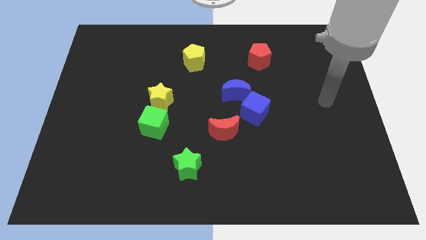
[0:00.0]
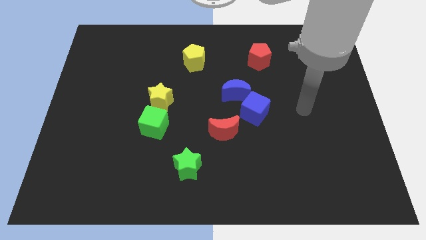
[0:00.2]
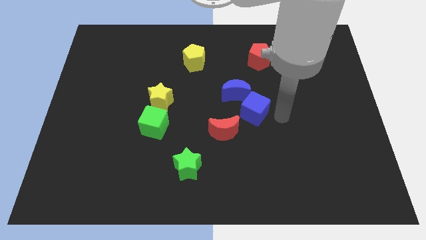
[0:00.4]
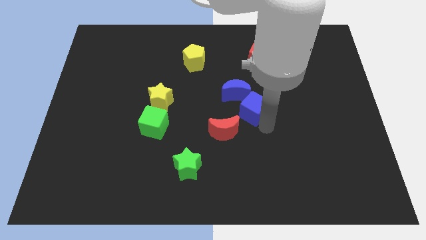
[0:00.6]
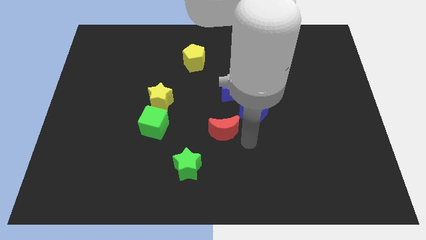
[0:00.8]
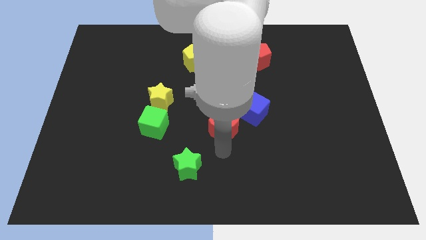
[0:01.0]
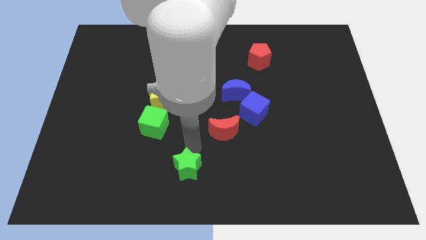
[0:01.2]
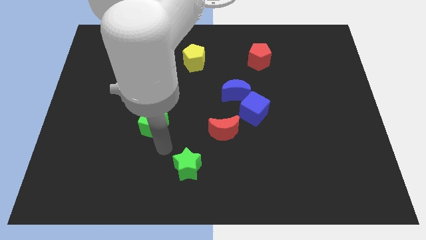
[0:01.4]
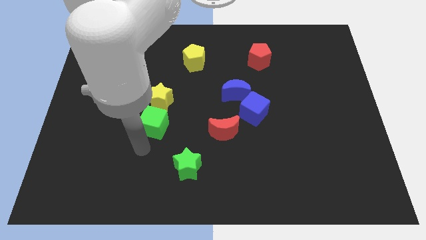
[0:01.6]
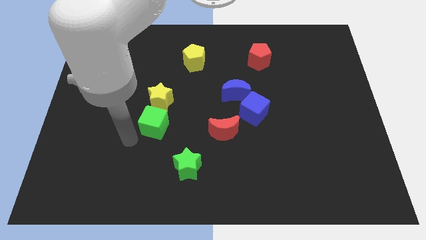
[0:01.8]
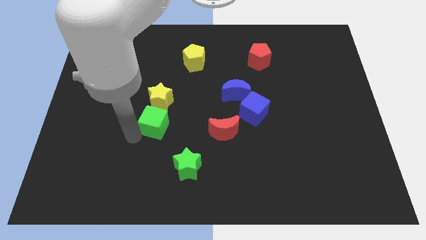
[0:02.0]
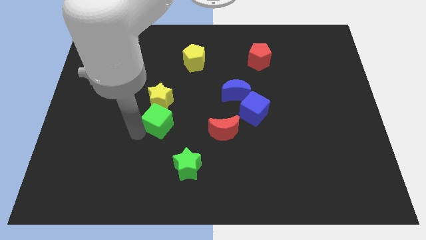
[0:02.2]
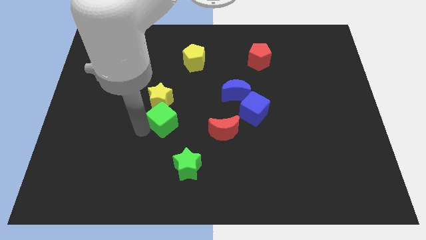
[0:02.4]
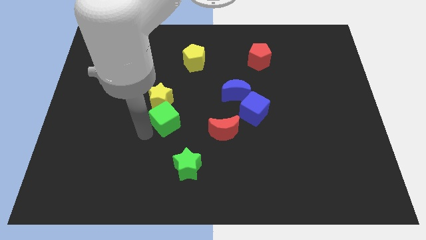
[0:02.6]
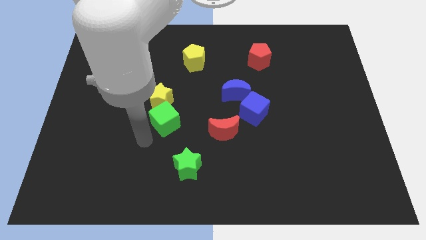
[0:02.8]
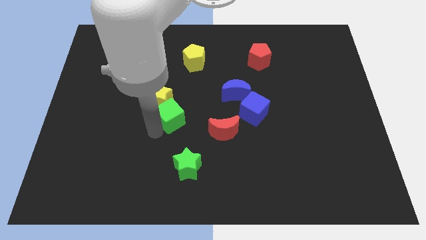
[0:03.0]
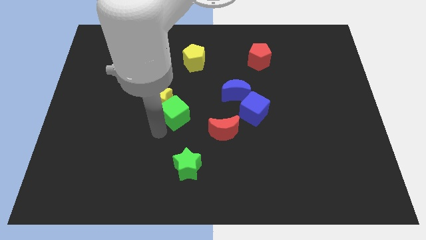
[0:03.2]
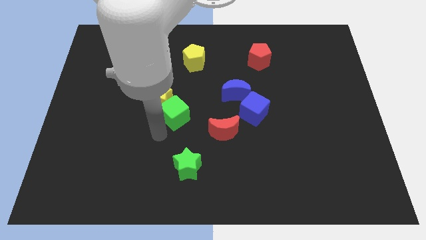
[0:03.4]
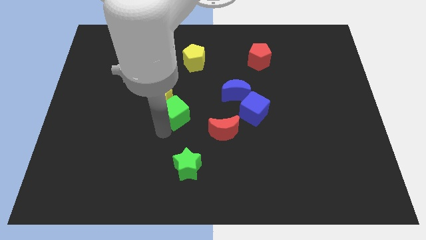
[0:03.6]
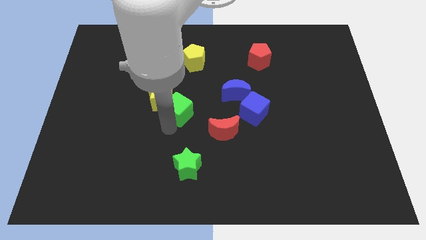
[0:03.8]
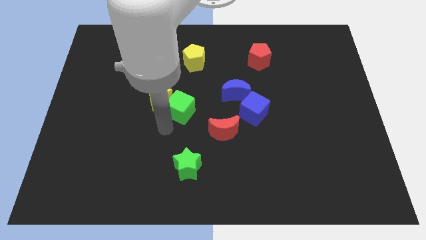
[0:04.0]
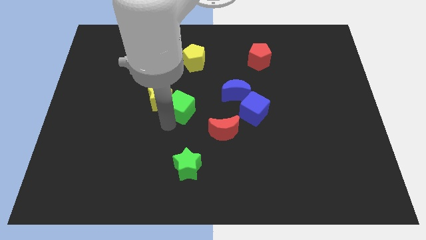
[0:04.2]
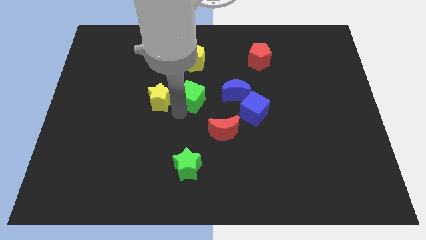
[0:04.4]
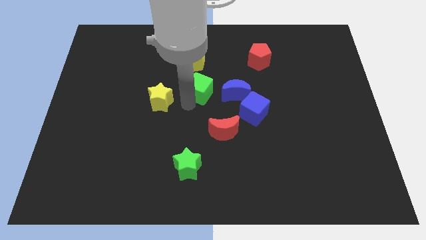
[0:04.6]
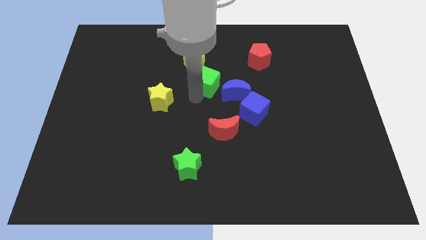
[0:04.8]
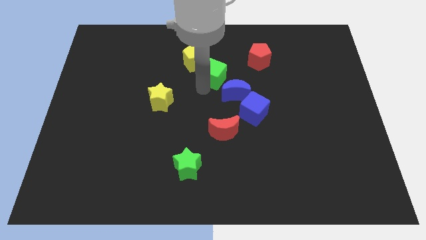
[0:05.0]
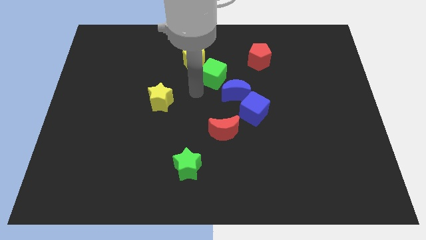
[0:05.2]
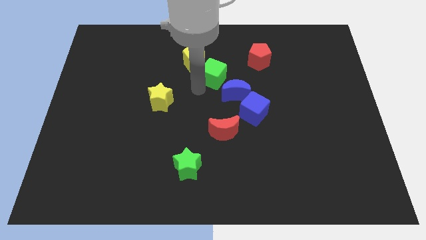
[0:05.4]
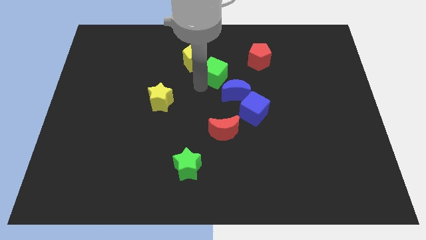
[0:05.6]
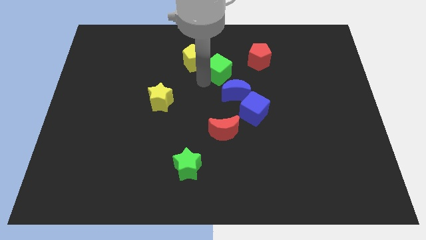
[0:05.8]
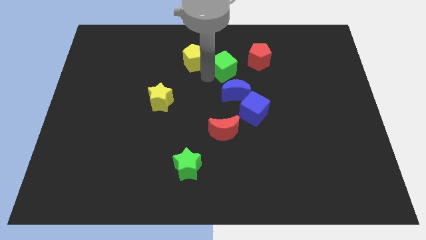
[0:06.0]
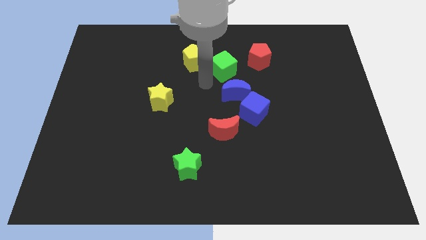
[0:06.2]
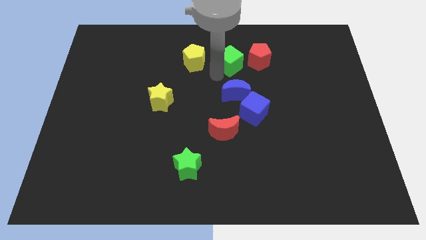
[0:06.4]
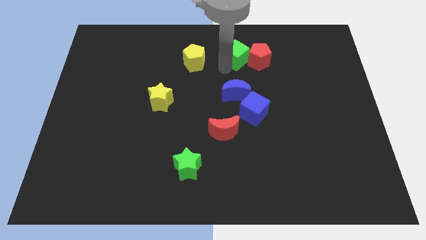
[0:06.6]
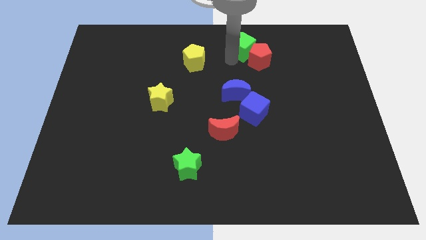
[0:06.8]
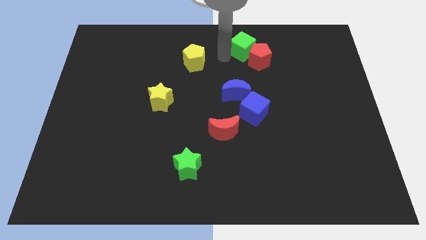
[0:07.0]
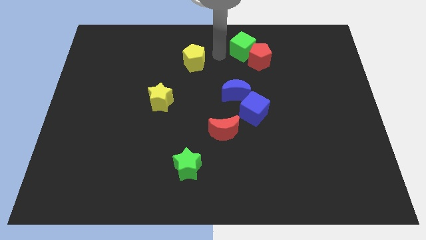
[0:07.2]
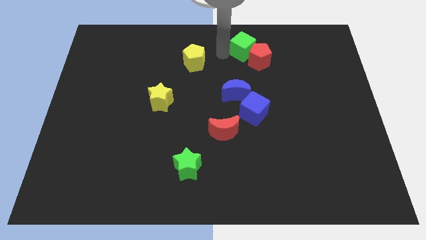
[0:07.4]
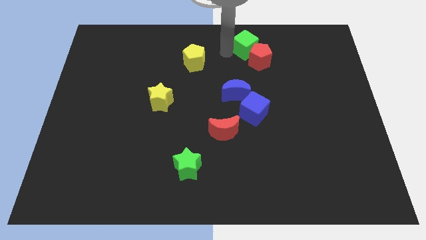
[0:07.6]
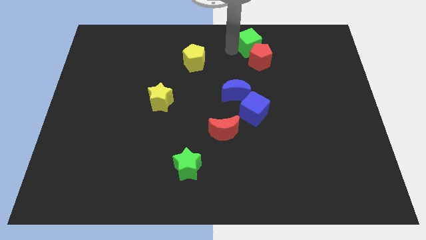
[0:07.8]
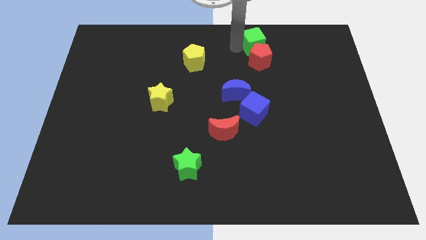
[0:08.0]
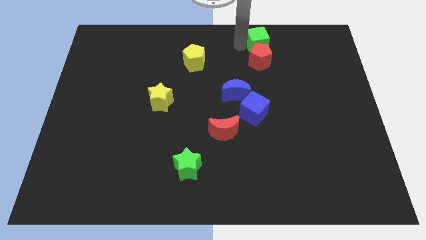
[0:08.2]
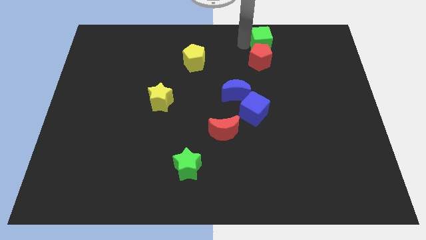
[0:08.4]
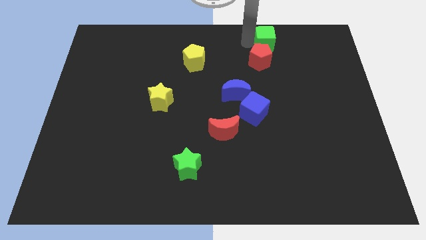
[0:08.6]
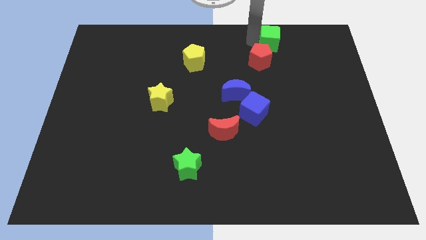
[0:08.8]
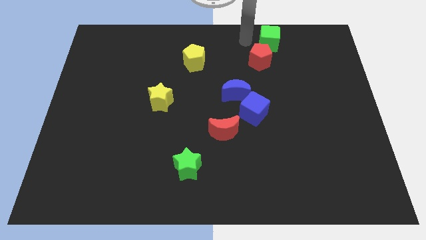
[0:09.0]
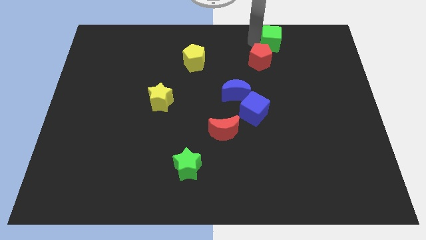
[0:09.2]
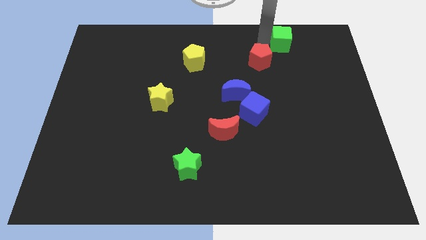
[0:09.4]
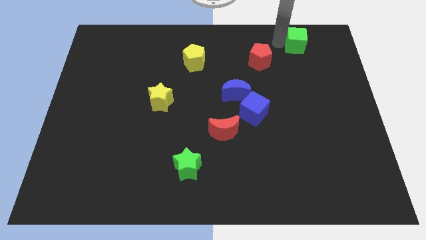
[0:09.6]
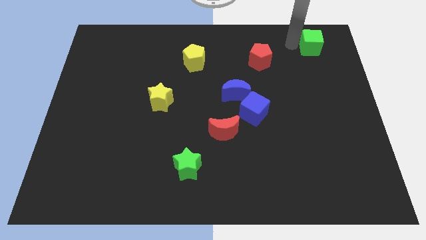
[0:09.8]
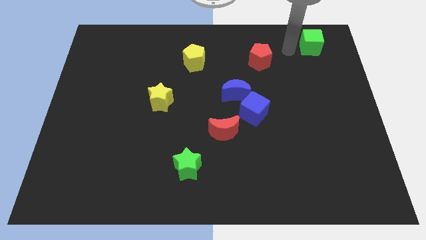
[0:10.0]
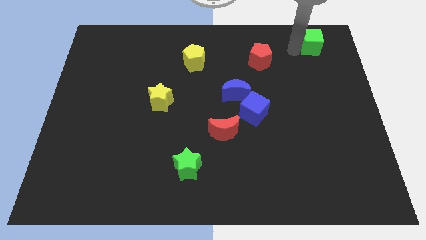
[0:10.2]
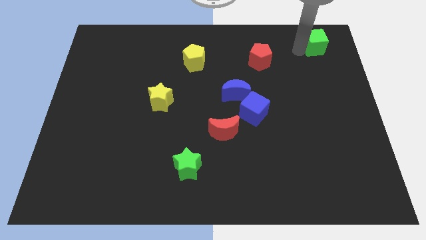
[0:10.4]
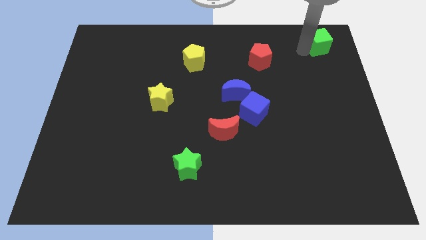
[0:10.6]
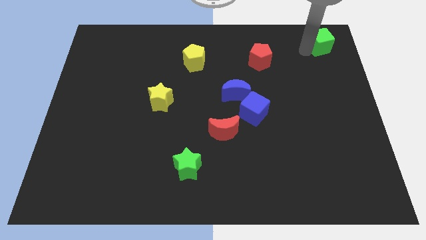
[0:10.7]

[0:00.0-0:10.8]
slide the green cube to the top right of the board

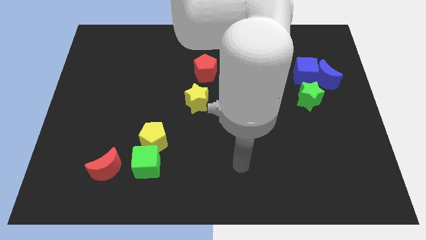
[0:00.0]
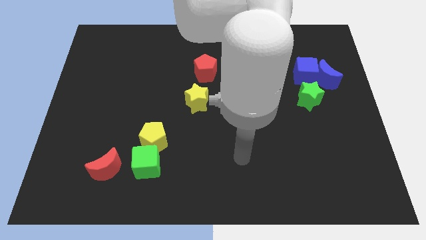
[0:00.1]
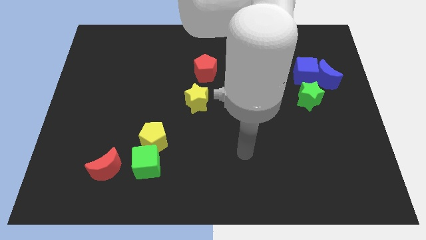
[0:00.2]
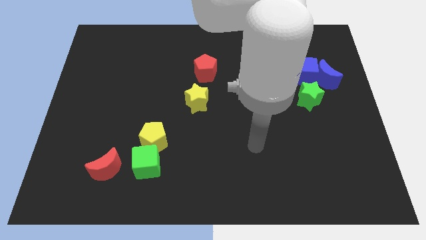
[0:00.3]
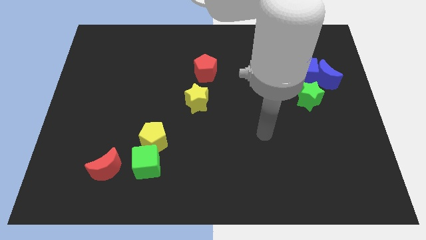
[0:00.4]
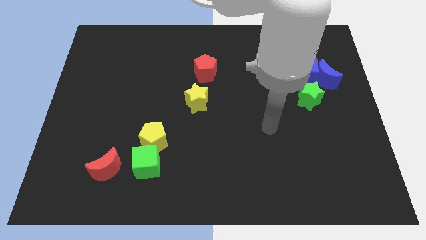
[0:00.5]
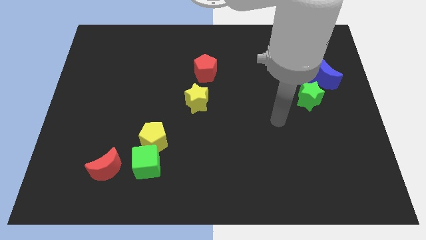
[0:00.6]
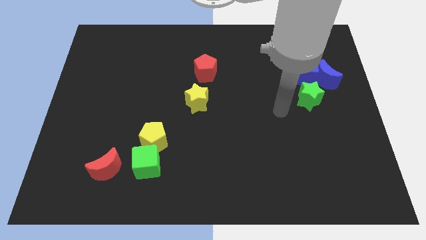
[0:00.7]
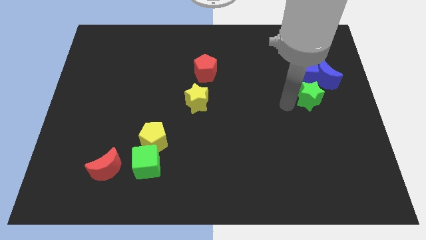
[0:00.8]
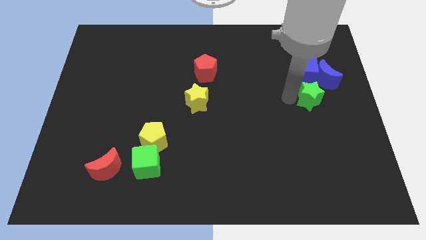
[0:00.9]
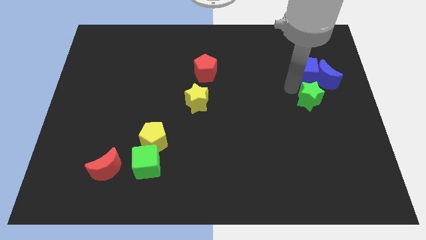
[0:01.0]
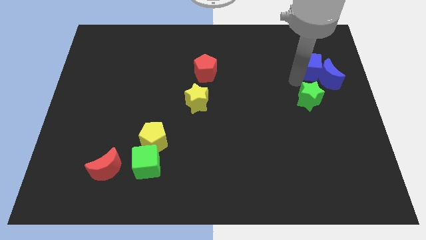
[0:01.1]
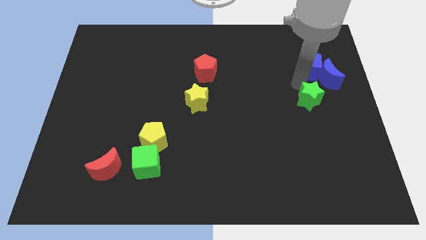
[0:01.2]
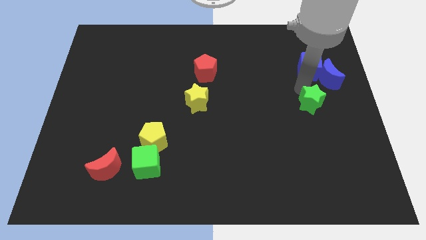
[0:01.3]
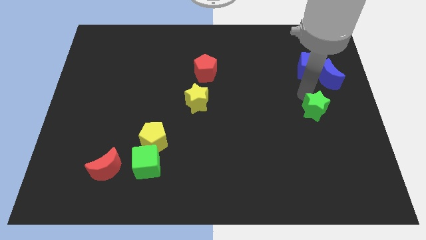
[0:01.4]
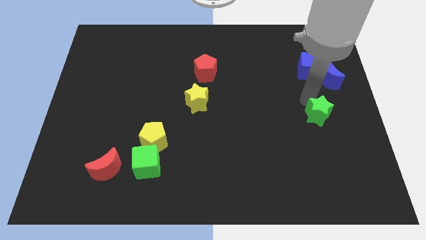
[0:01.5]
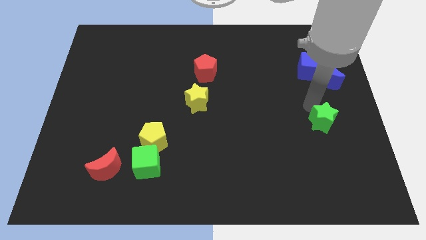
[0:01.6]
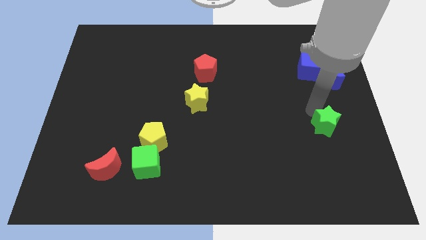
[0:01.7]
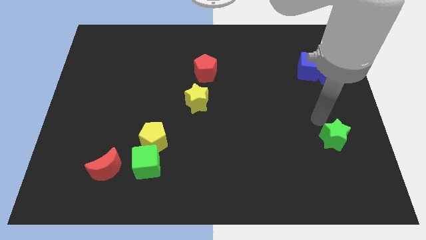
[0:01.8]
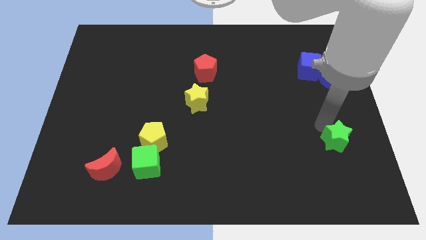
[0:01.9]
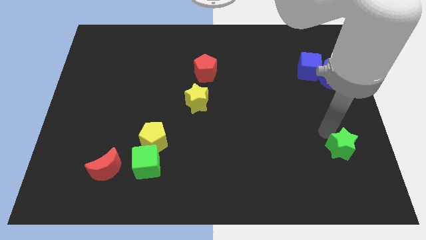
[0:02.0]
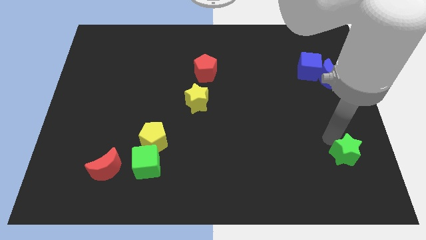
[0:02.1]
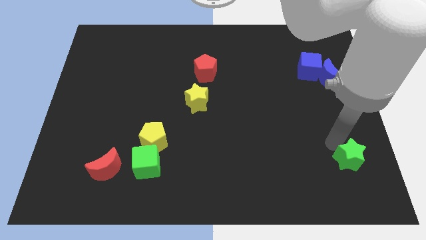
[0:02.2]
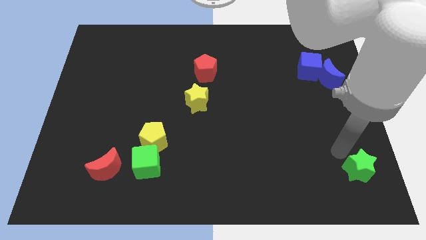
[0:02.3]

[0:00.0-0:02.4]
slide the green star to the bottom right corner
